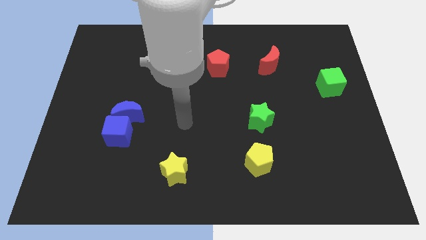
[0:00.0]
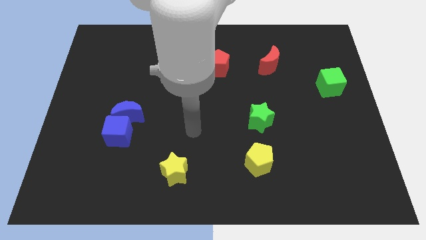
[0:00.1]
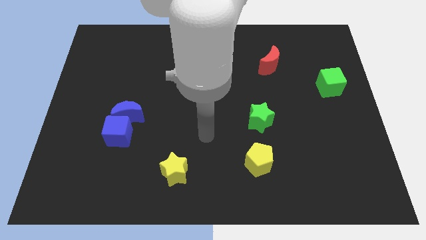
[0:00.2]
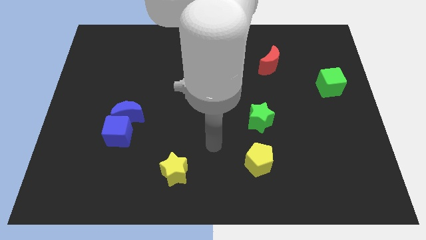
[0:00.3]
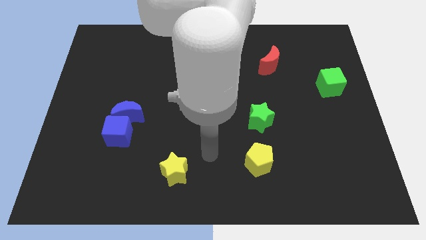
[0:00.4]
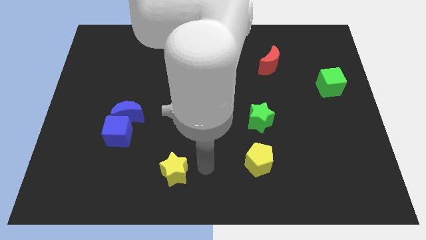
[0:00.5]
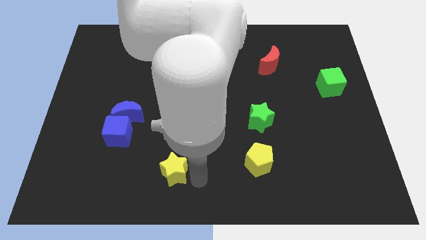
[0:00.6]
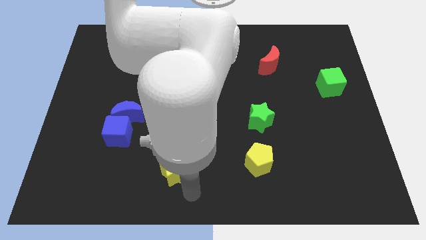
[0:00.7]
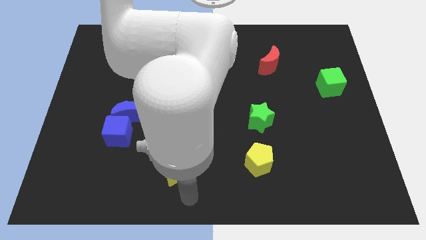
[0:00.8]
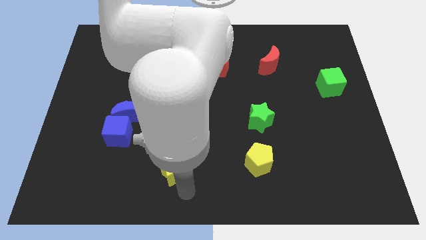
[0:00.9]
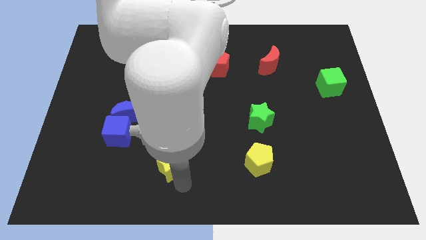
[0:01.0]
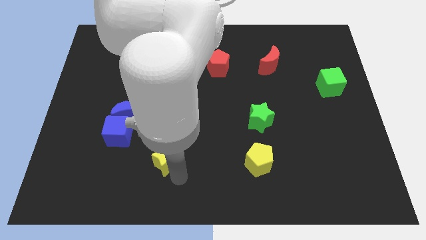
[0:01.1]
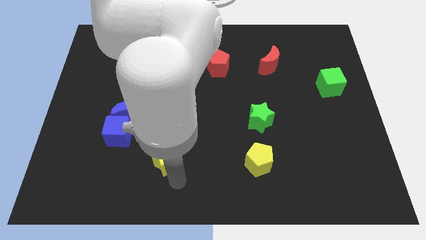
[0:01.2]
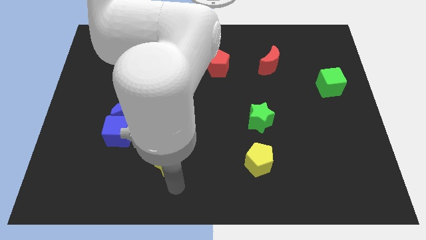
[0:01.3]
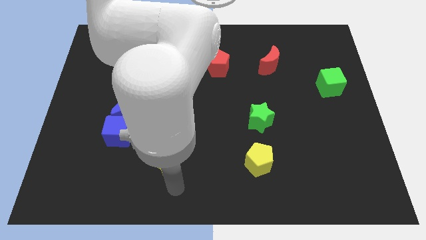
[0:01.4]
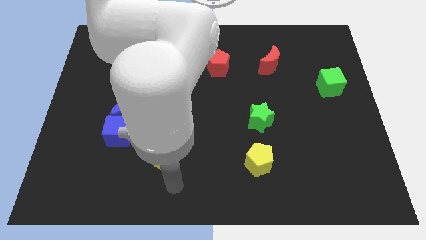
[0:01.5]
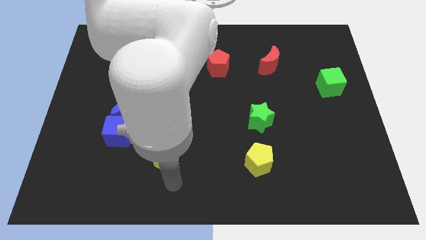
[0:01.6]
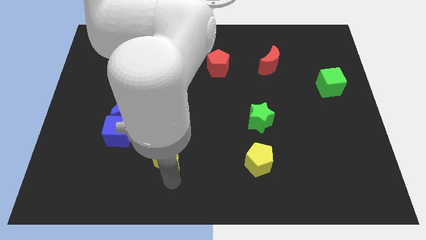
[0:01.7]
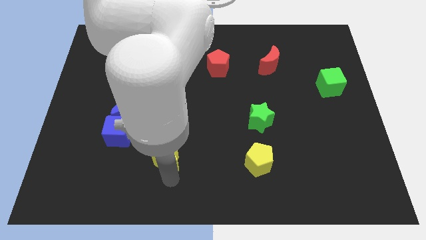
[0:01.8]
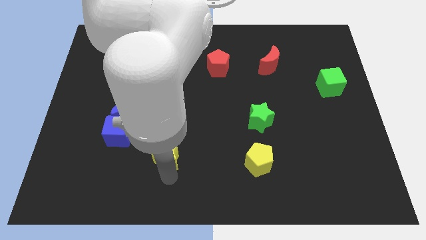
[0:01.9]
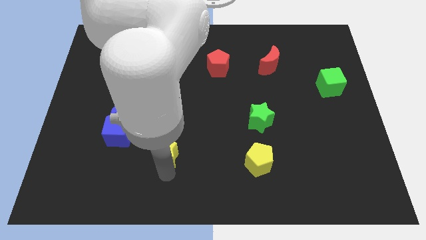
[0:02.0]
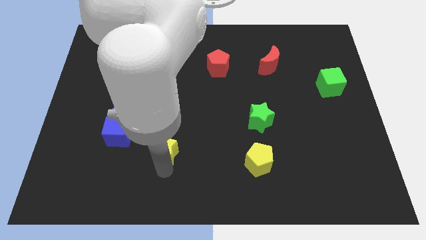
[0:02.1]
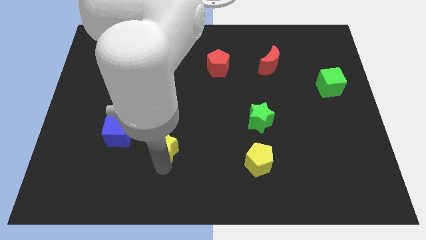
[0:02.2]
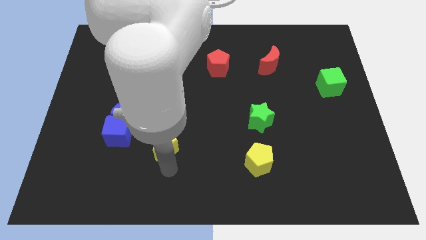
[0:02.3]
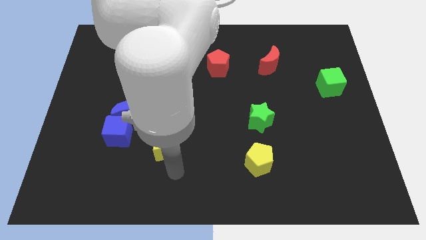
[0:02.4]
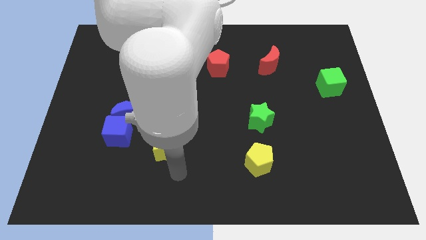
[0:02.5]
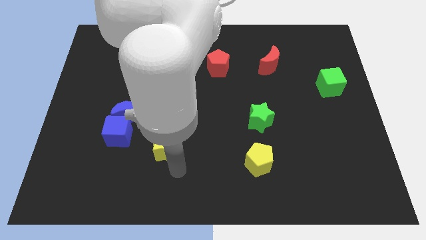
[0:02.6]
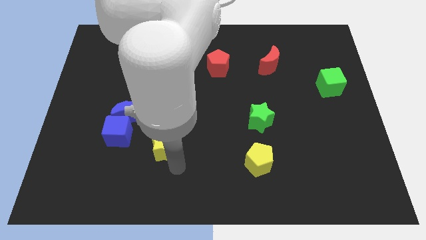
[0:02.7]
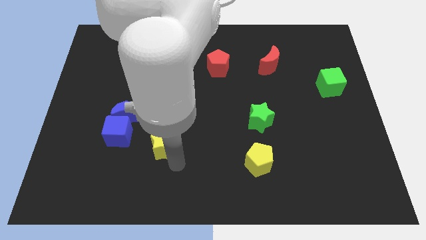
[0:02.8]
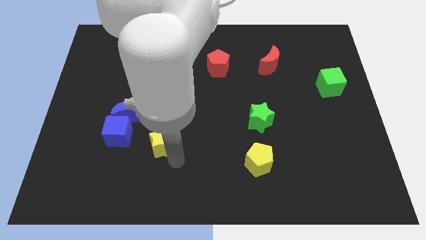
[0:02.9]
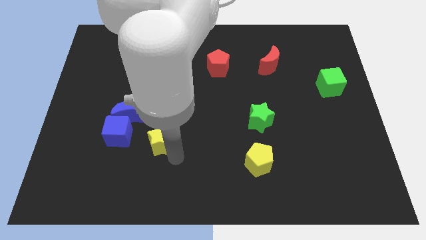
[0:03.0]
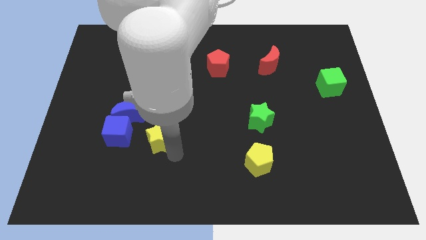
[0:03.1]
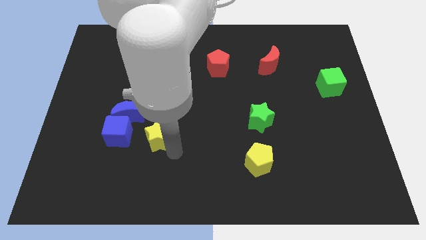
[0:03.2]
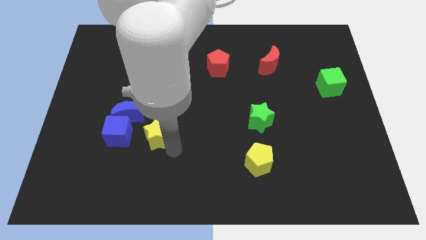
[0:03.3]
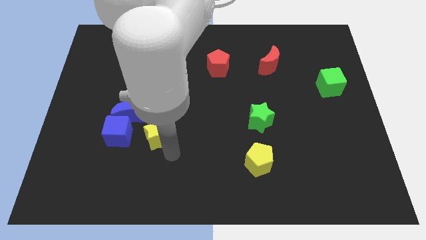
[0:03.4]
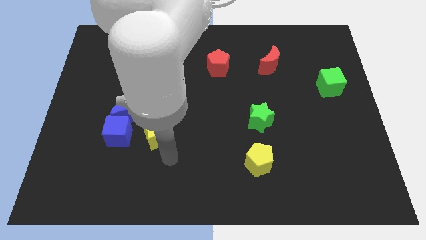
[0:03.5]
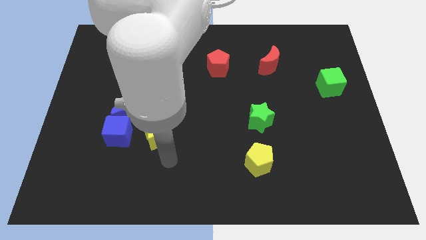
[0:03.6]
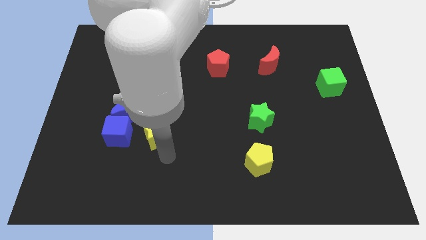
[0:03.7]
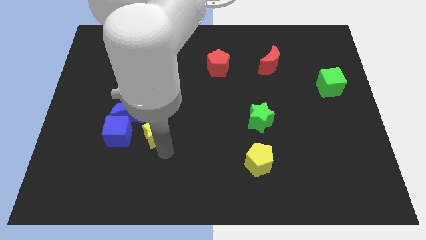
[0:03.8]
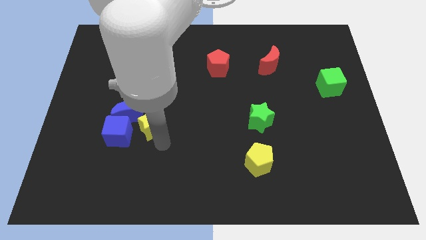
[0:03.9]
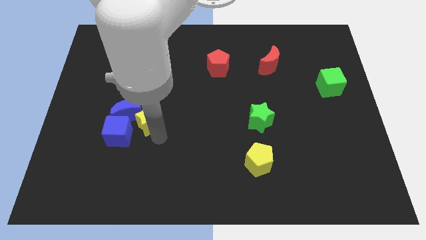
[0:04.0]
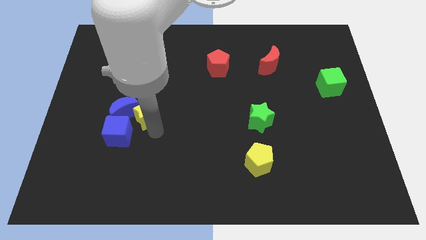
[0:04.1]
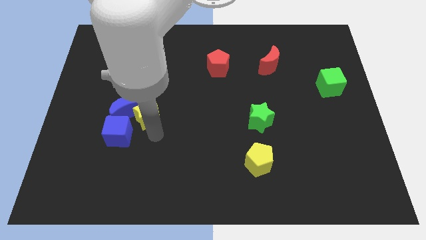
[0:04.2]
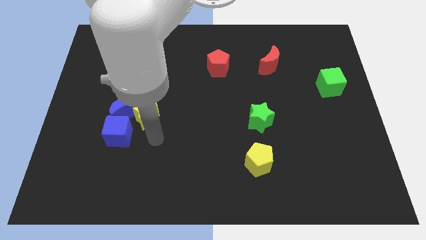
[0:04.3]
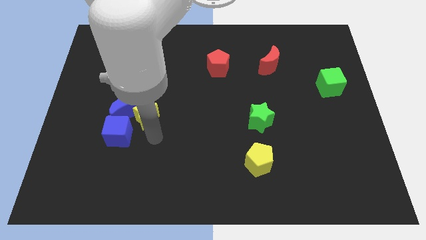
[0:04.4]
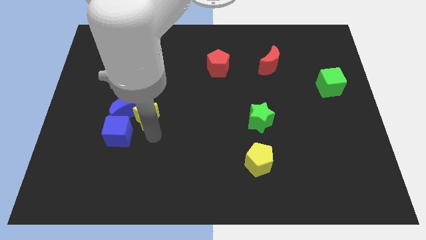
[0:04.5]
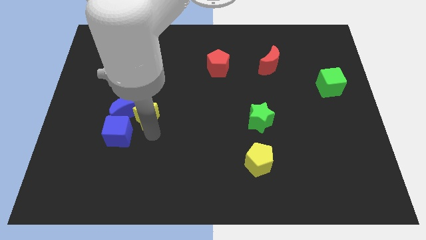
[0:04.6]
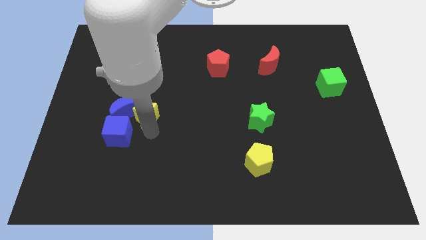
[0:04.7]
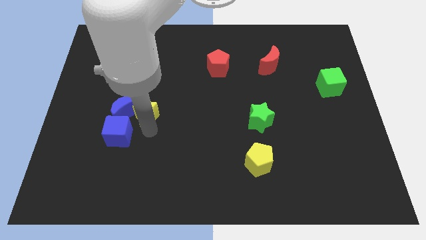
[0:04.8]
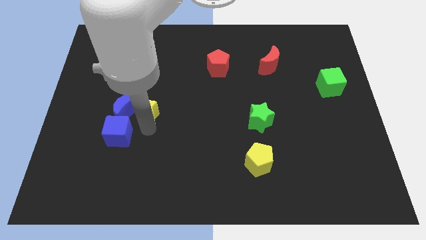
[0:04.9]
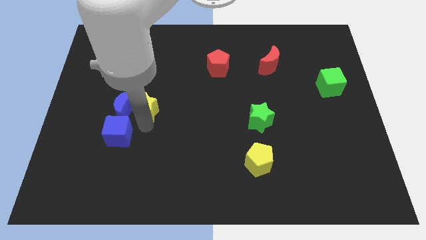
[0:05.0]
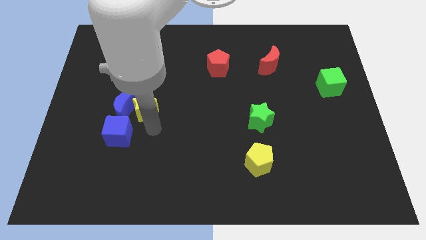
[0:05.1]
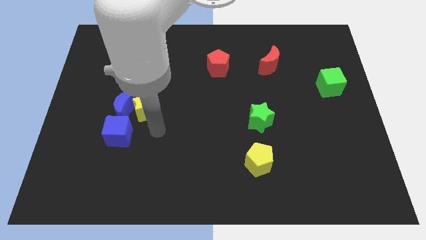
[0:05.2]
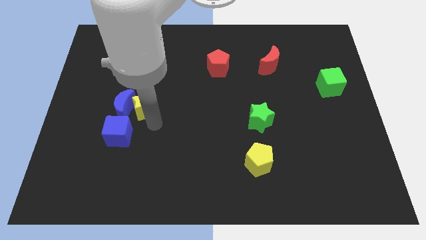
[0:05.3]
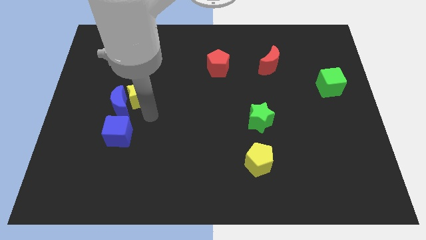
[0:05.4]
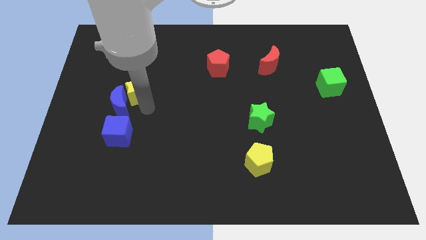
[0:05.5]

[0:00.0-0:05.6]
push the yellow star above the blue moon

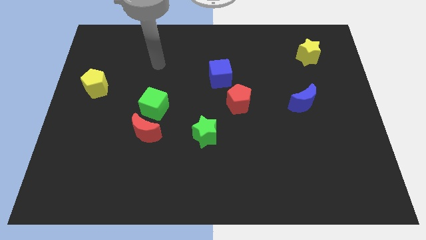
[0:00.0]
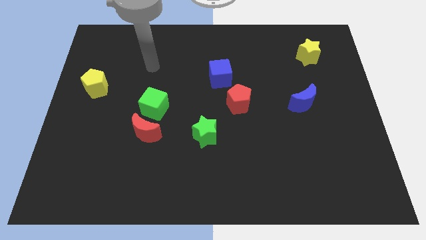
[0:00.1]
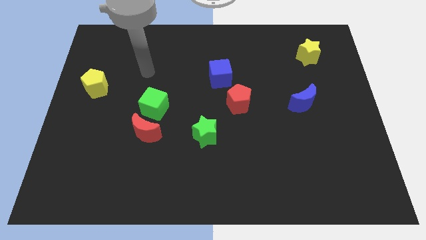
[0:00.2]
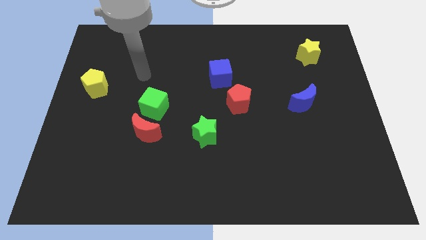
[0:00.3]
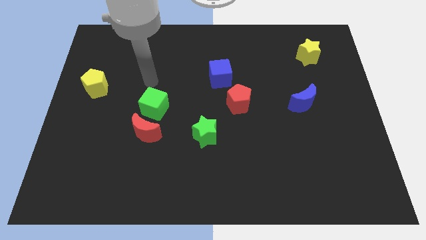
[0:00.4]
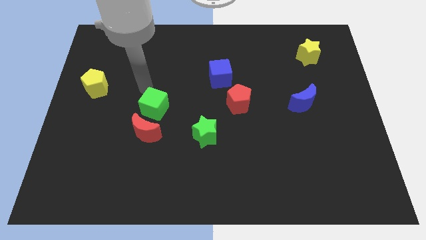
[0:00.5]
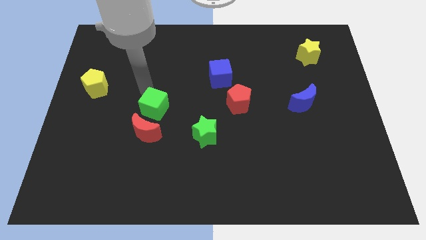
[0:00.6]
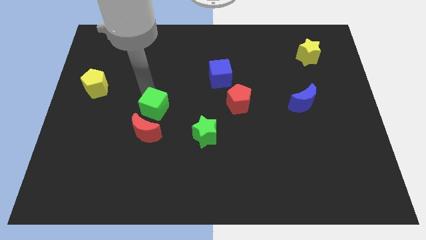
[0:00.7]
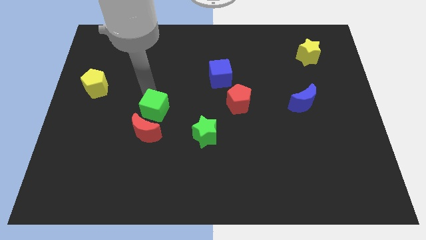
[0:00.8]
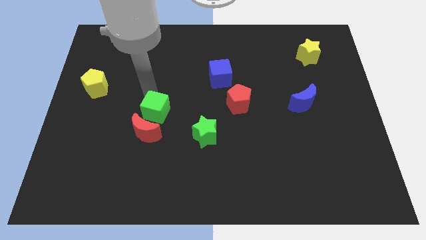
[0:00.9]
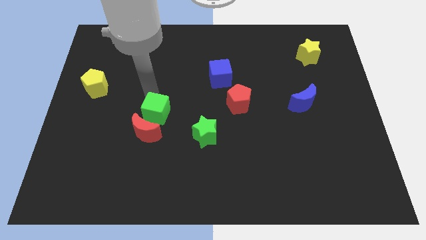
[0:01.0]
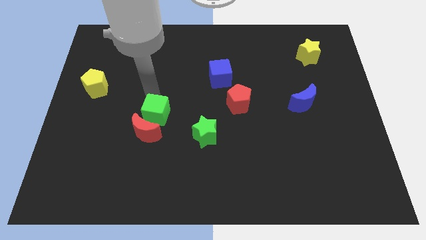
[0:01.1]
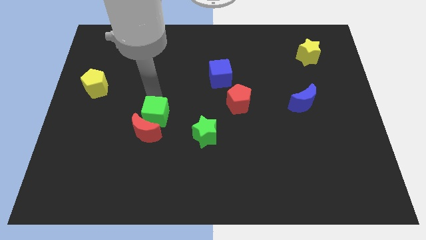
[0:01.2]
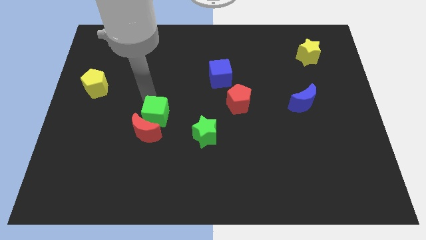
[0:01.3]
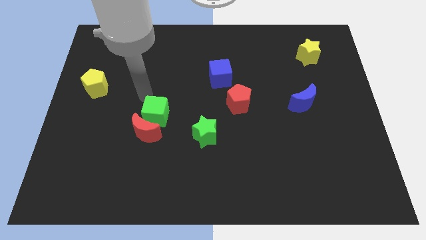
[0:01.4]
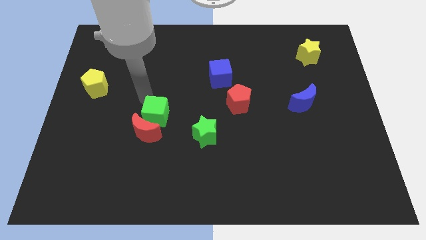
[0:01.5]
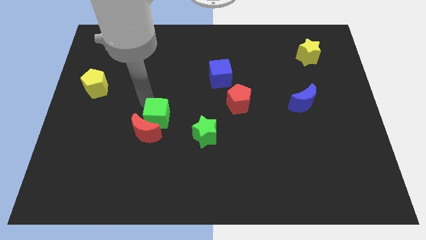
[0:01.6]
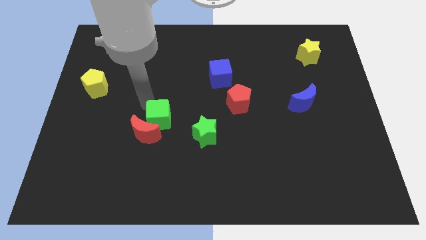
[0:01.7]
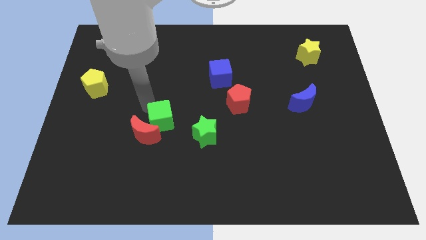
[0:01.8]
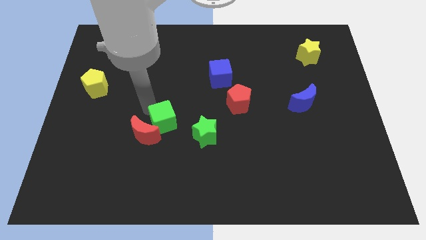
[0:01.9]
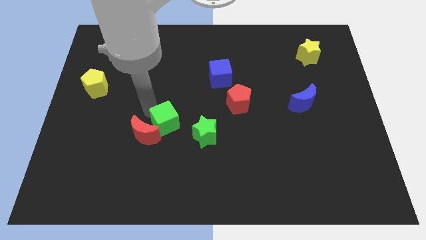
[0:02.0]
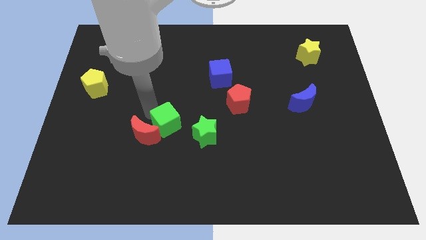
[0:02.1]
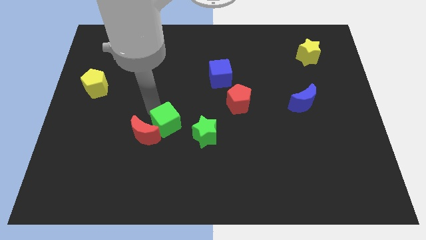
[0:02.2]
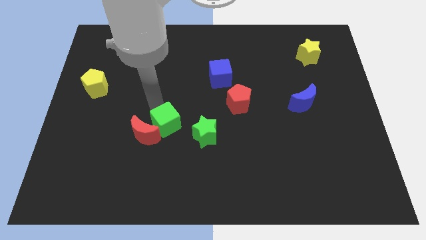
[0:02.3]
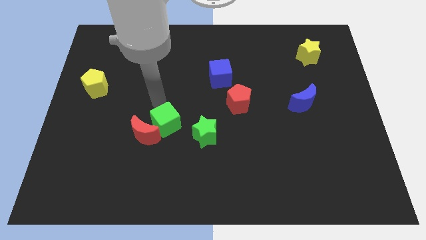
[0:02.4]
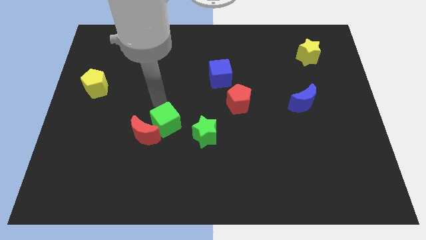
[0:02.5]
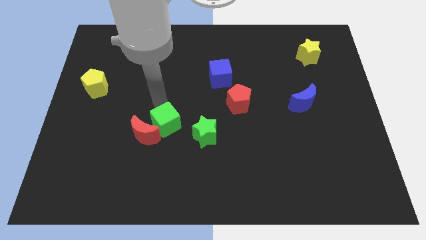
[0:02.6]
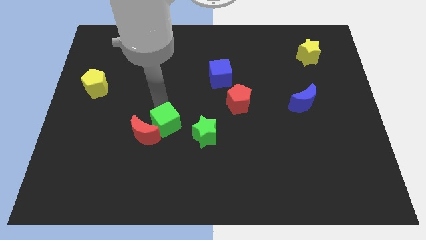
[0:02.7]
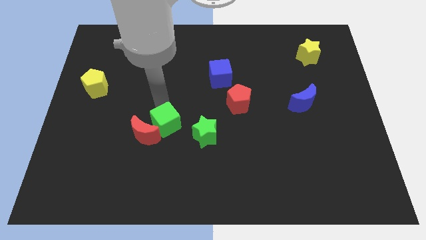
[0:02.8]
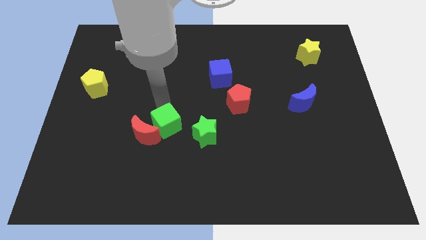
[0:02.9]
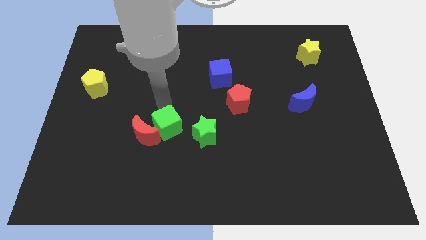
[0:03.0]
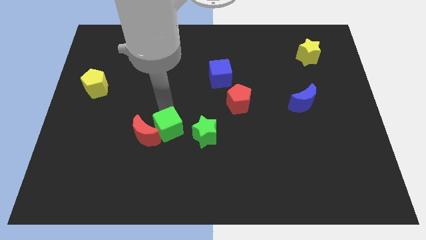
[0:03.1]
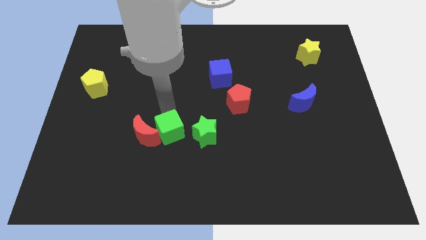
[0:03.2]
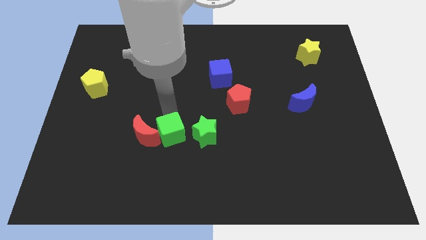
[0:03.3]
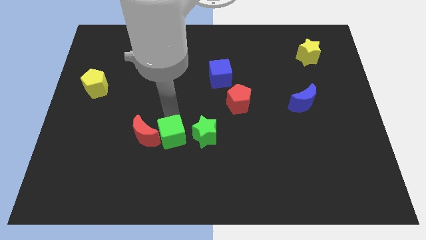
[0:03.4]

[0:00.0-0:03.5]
push the green cube to the bottom left side of the green star
